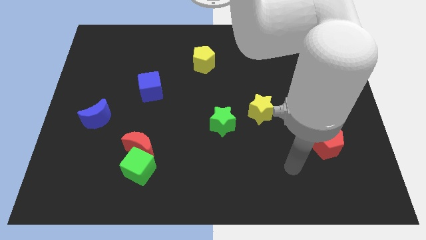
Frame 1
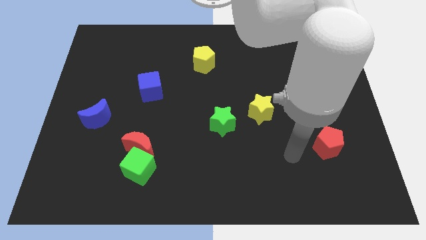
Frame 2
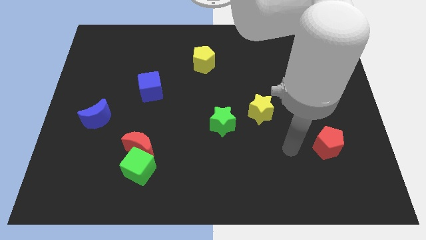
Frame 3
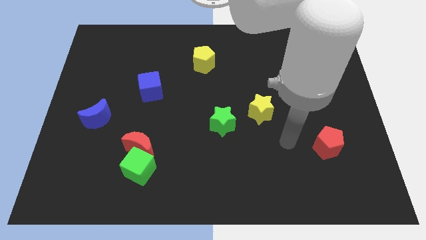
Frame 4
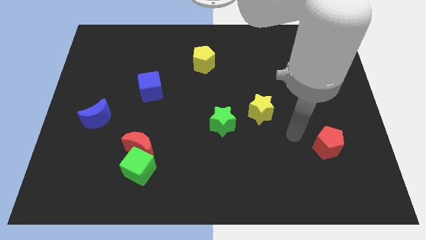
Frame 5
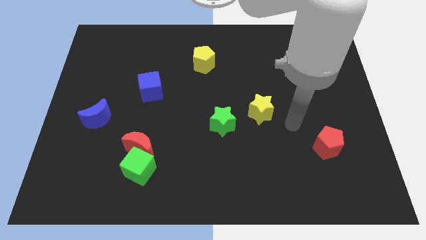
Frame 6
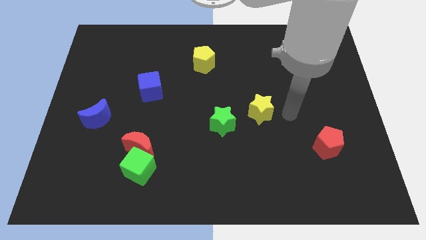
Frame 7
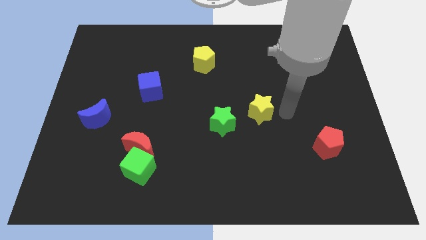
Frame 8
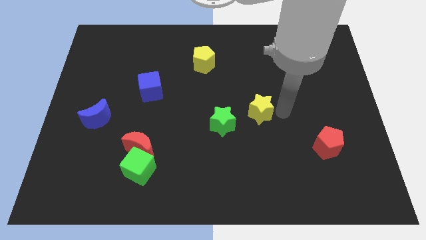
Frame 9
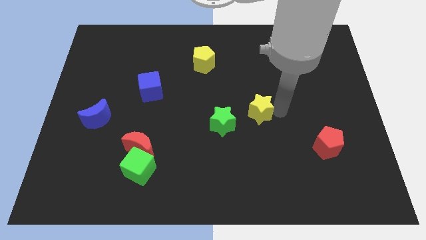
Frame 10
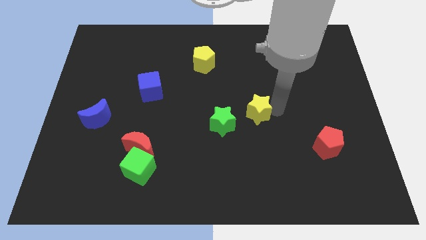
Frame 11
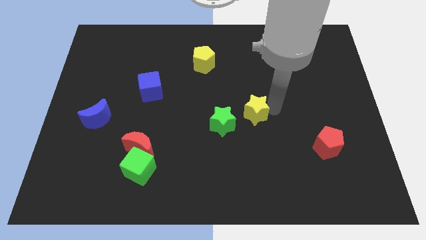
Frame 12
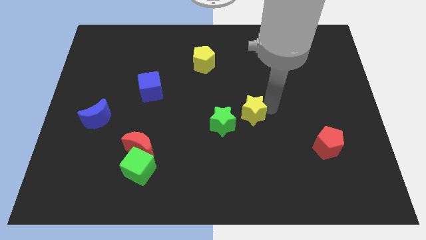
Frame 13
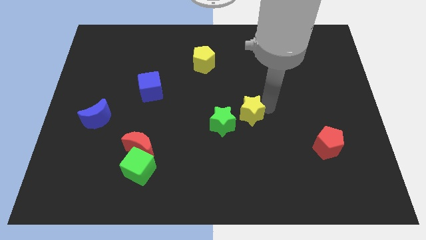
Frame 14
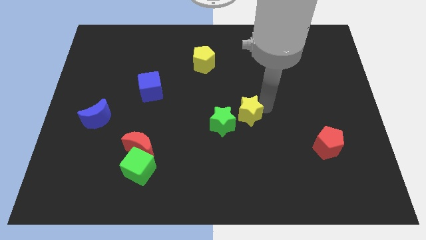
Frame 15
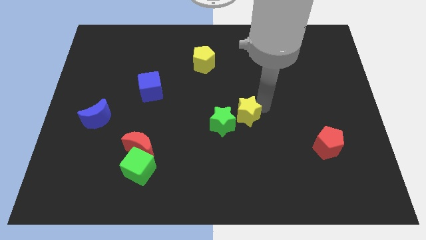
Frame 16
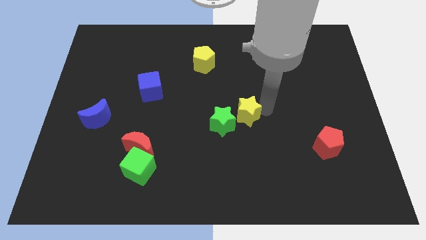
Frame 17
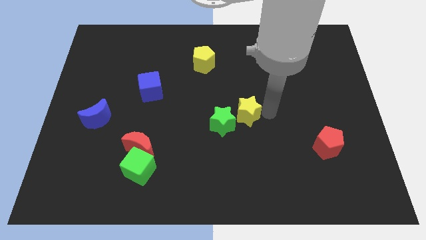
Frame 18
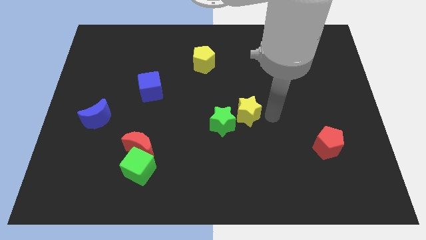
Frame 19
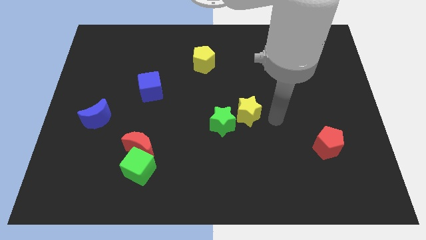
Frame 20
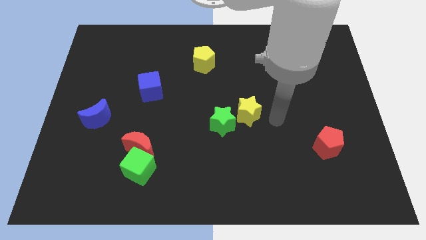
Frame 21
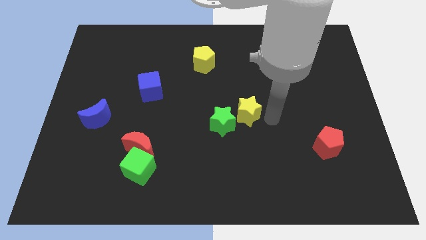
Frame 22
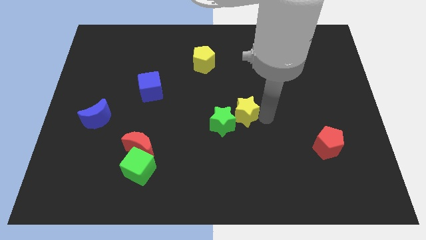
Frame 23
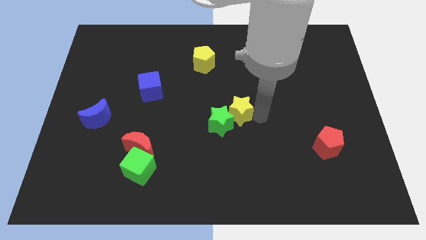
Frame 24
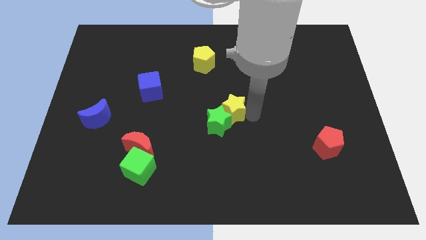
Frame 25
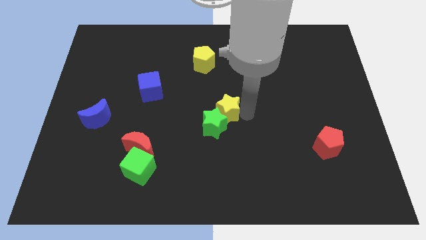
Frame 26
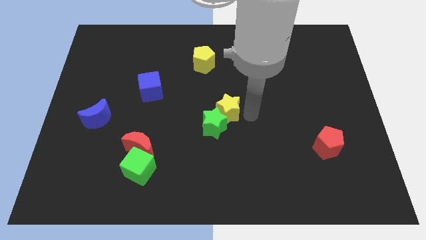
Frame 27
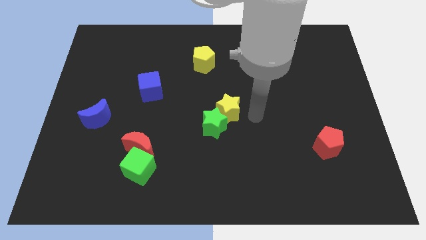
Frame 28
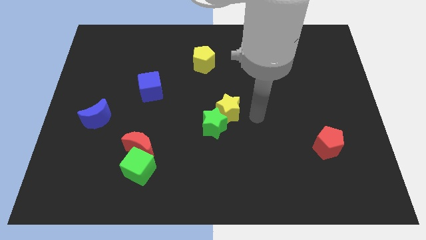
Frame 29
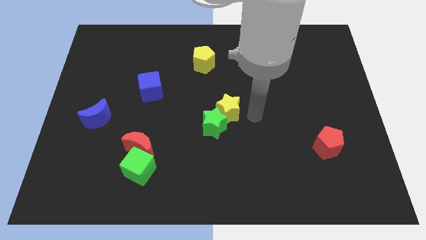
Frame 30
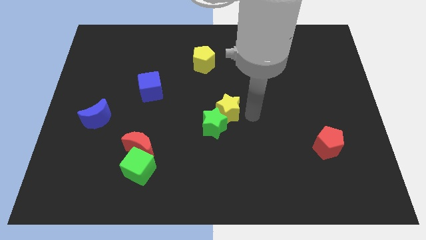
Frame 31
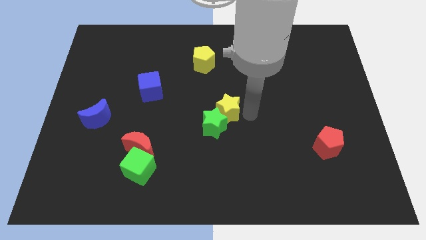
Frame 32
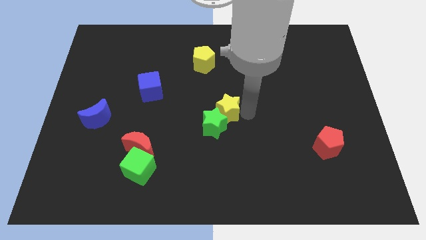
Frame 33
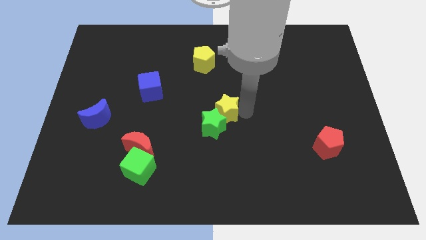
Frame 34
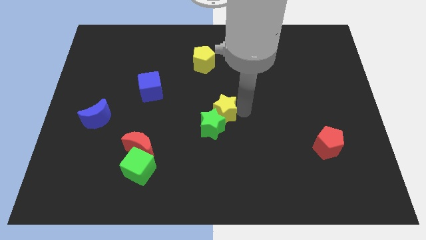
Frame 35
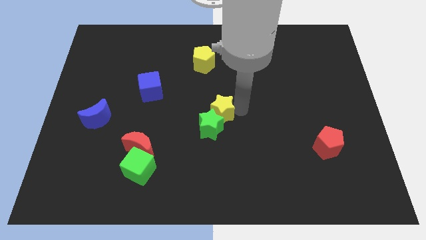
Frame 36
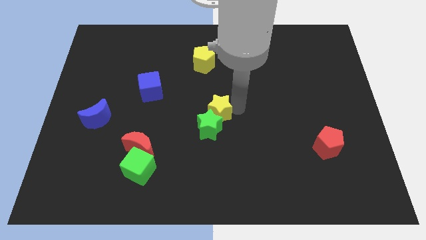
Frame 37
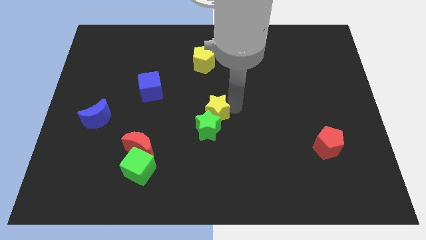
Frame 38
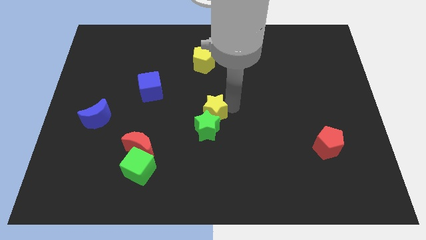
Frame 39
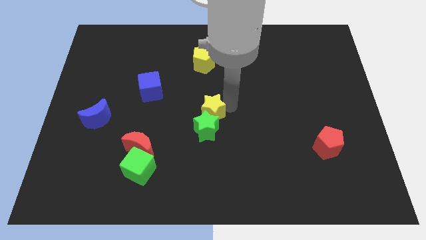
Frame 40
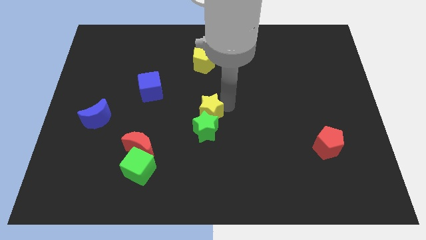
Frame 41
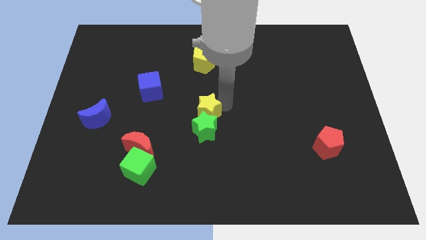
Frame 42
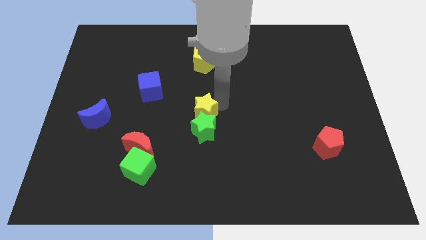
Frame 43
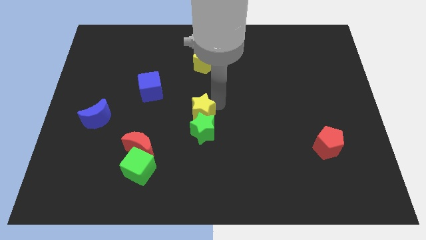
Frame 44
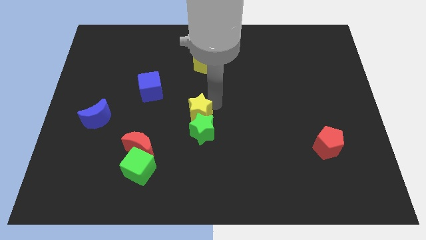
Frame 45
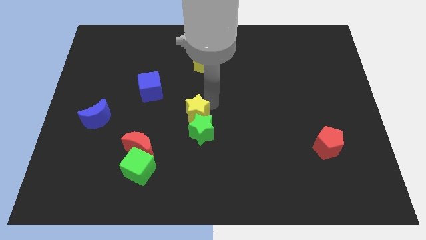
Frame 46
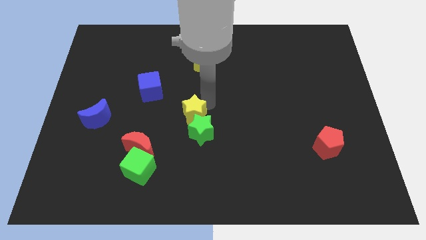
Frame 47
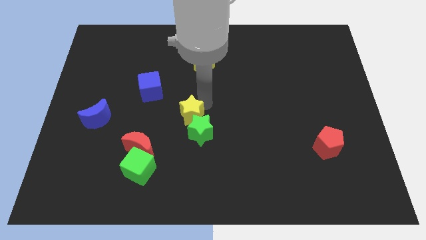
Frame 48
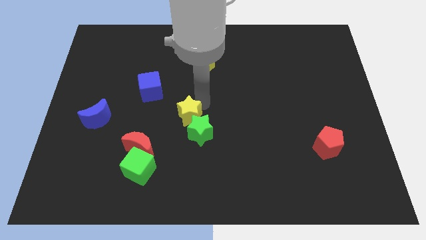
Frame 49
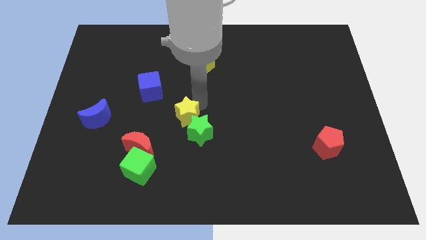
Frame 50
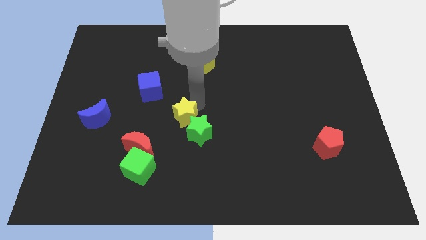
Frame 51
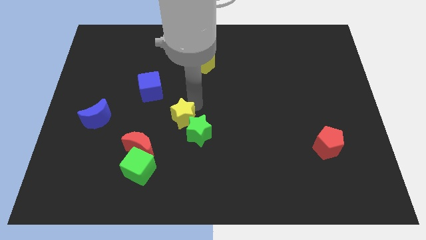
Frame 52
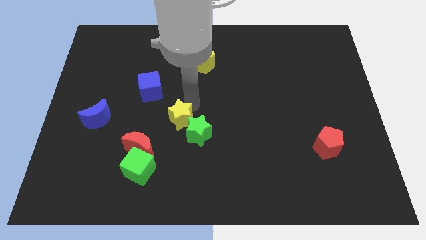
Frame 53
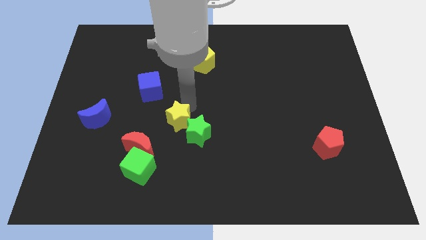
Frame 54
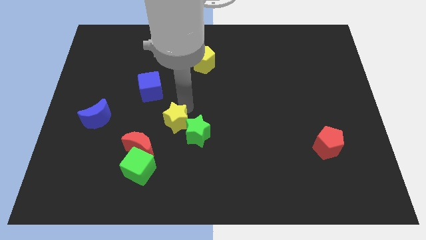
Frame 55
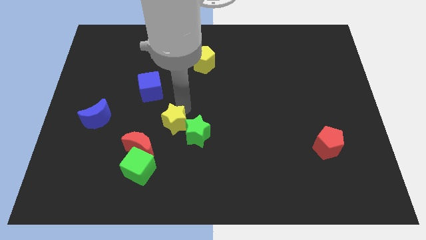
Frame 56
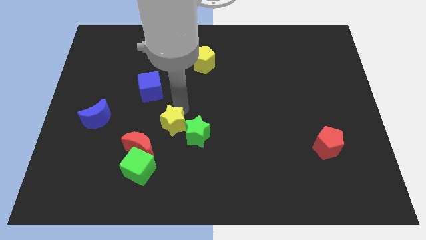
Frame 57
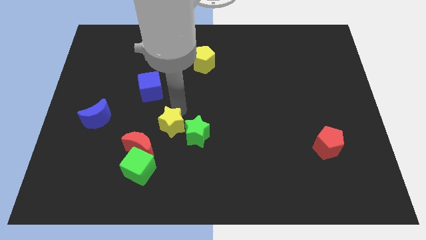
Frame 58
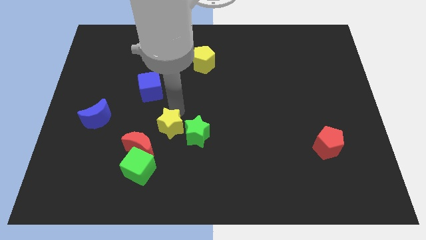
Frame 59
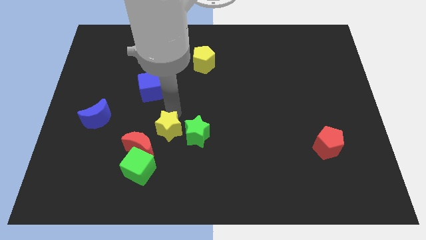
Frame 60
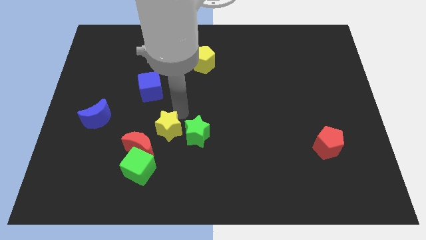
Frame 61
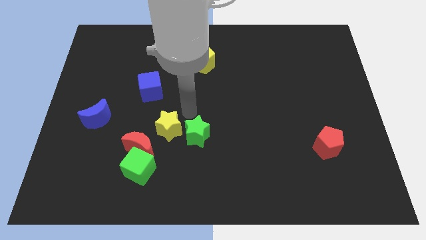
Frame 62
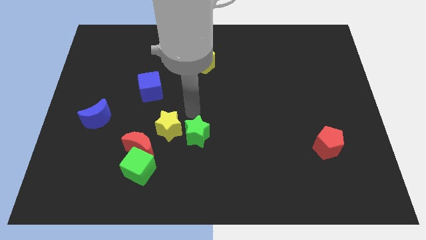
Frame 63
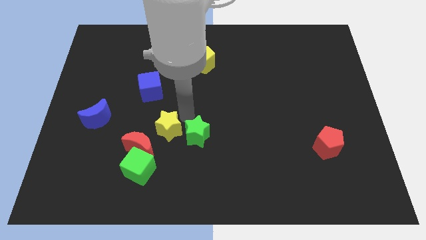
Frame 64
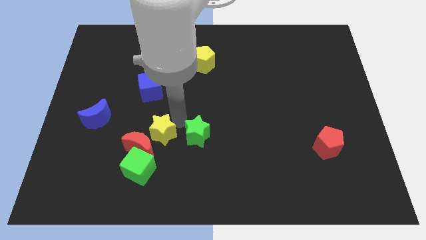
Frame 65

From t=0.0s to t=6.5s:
put the yellow star to the red moon

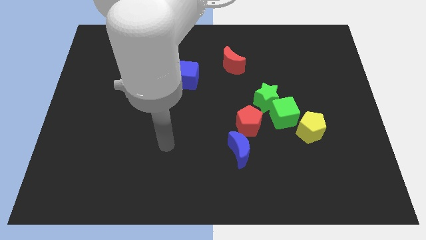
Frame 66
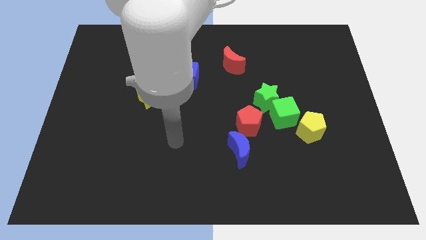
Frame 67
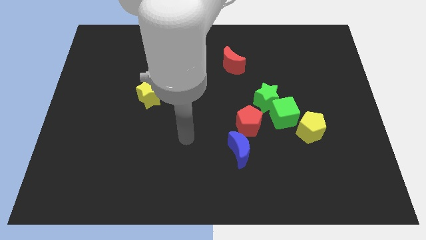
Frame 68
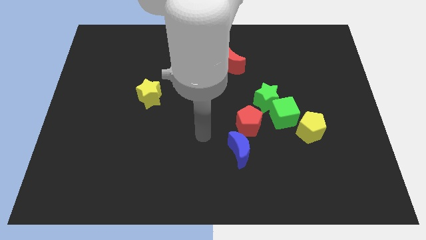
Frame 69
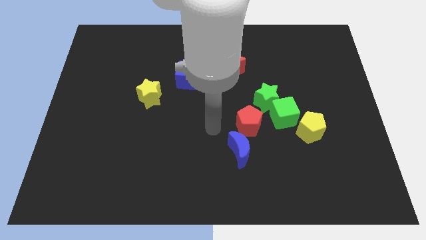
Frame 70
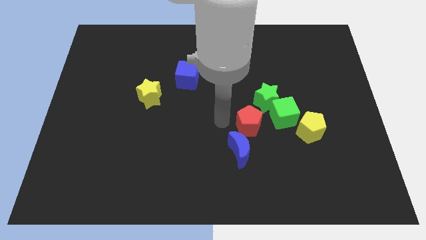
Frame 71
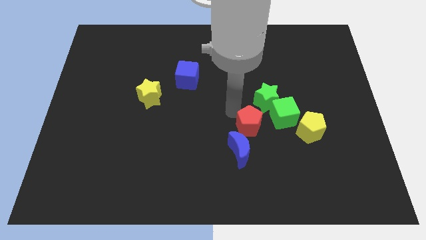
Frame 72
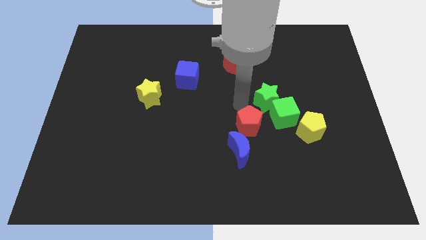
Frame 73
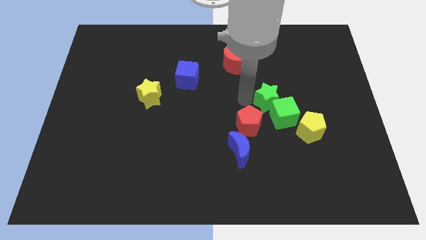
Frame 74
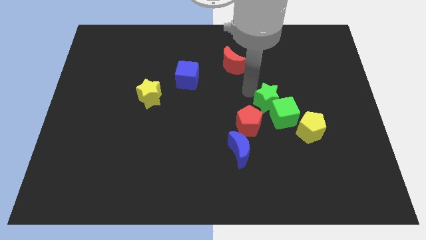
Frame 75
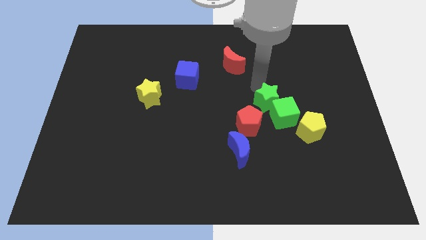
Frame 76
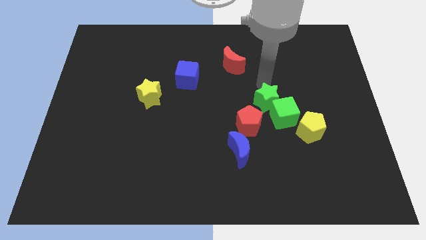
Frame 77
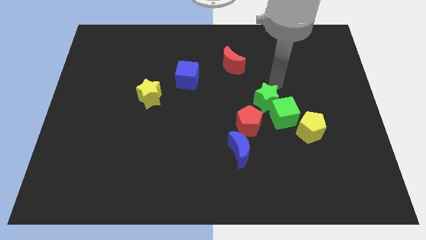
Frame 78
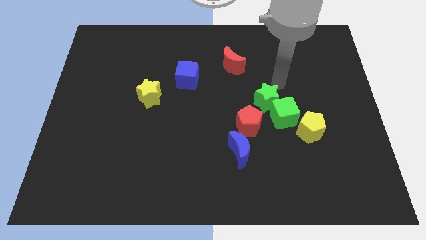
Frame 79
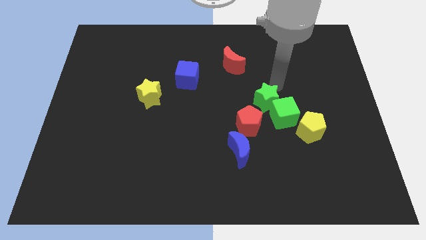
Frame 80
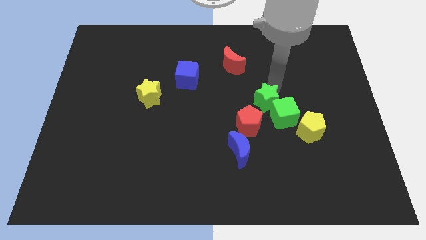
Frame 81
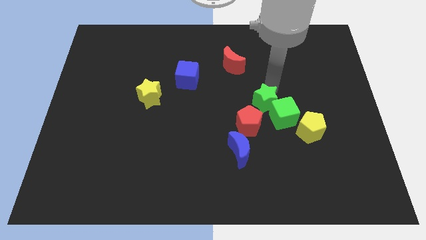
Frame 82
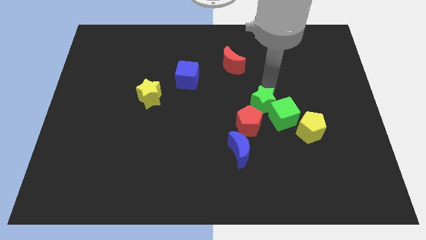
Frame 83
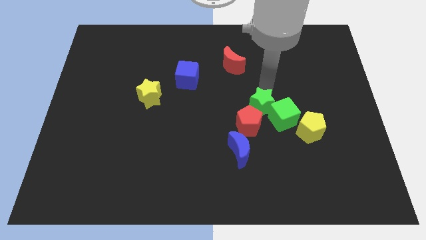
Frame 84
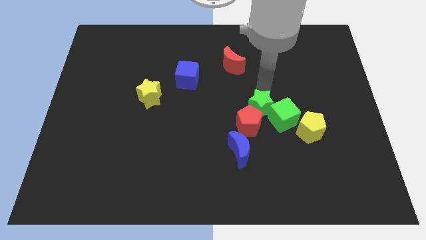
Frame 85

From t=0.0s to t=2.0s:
move the green star close to the red pentagon
